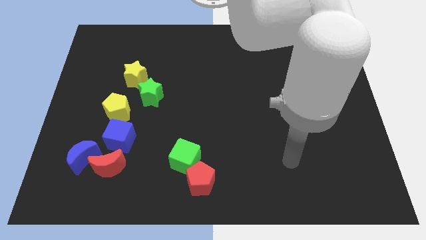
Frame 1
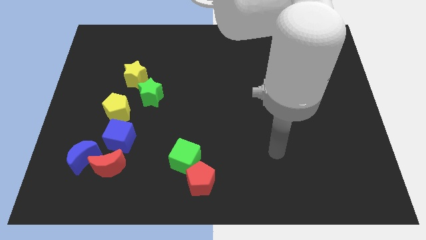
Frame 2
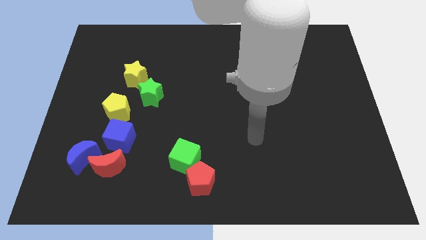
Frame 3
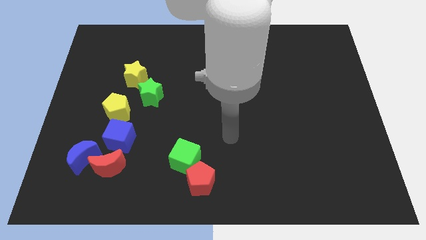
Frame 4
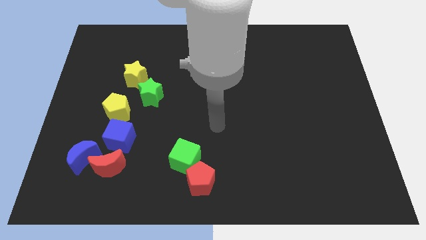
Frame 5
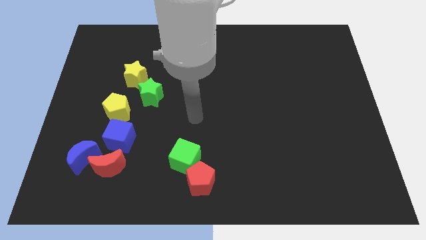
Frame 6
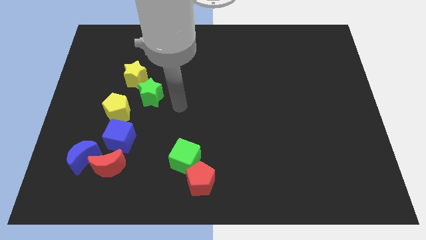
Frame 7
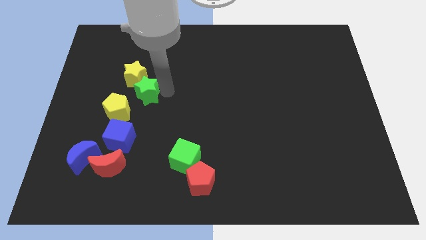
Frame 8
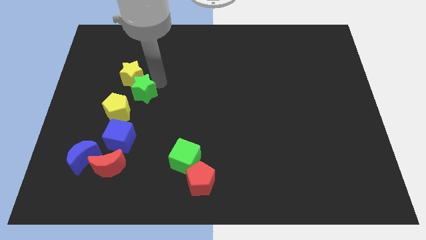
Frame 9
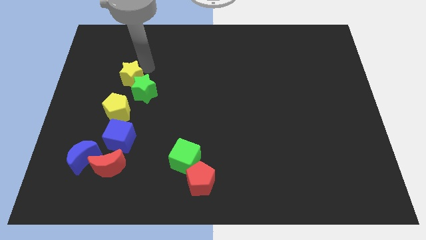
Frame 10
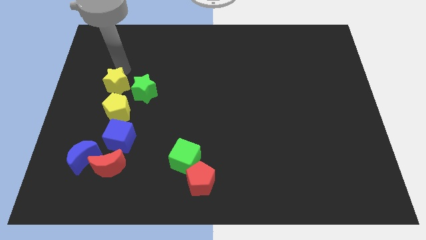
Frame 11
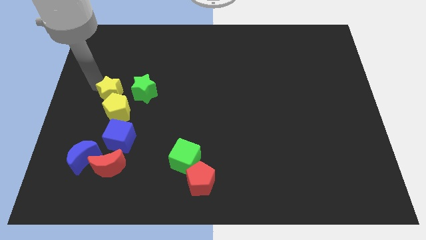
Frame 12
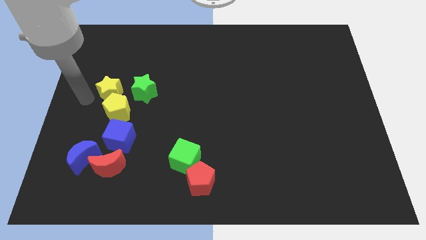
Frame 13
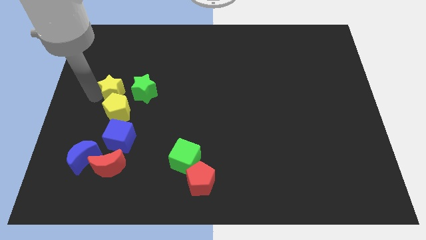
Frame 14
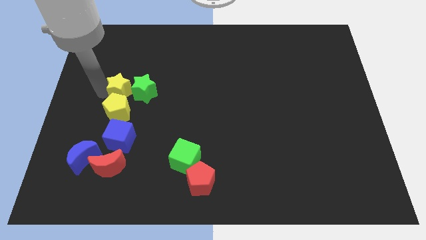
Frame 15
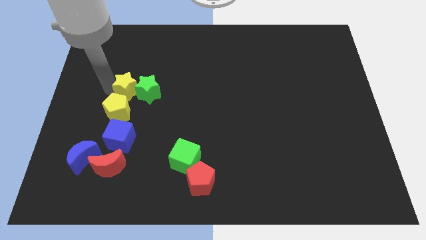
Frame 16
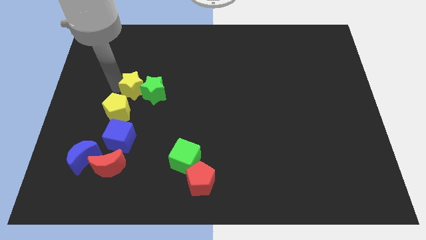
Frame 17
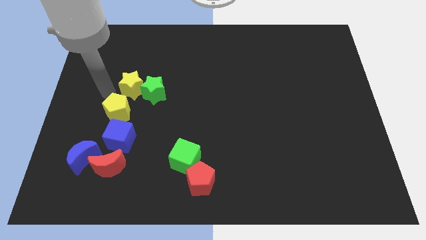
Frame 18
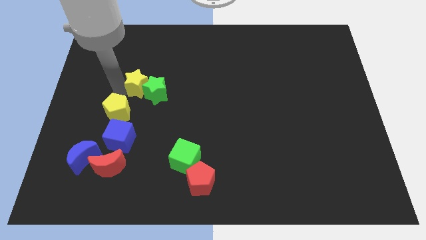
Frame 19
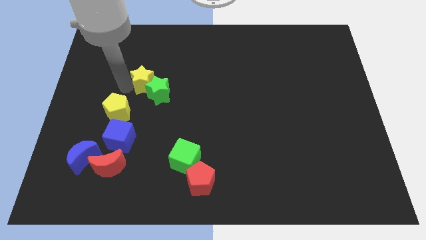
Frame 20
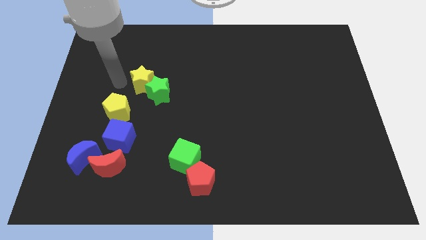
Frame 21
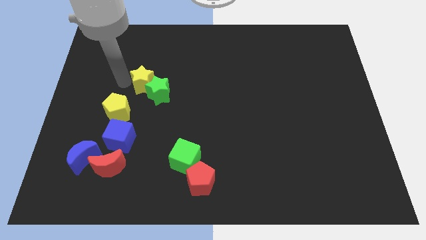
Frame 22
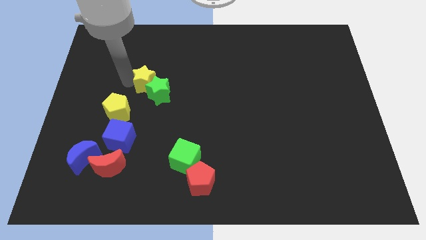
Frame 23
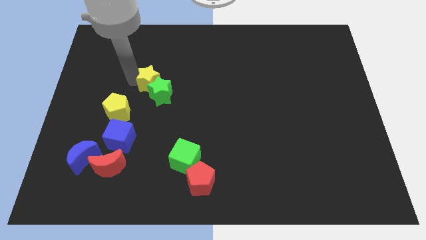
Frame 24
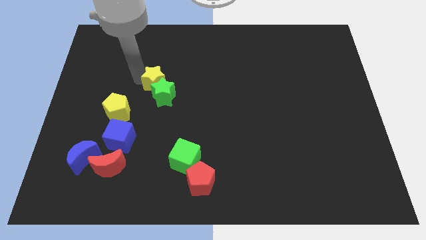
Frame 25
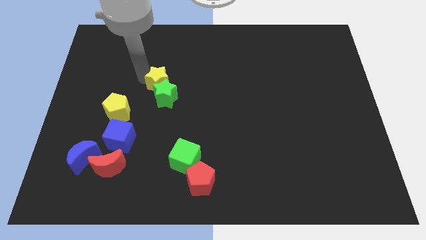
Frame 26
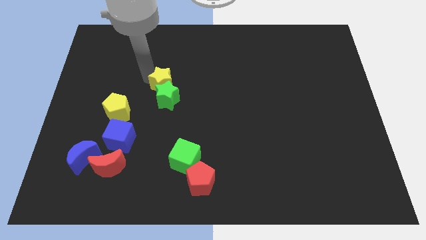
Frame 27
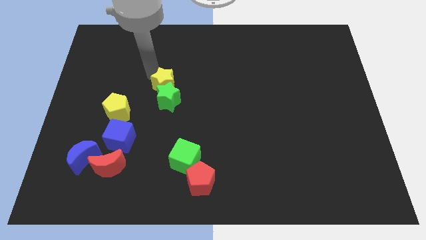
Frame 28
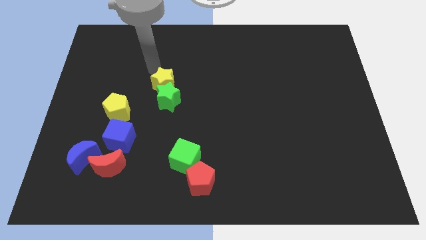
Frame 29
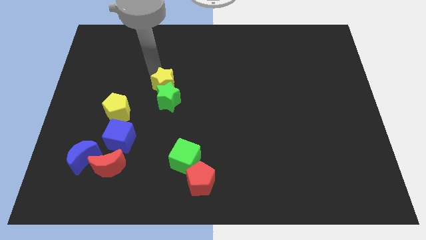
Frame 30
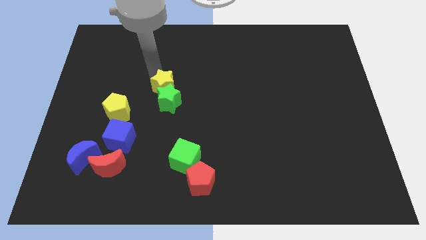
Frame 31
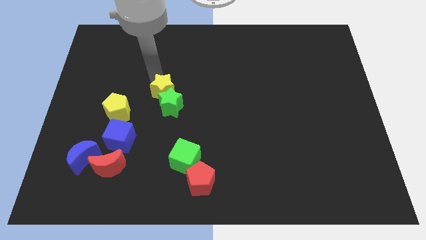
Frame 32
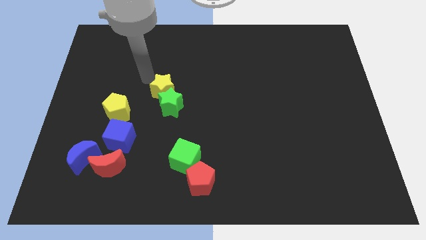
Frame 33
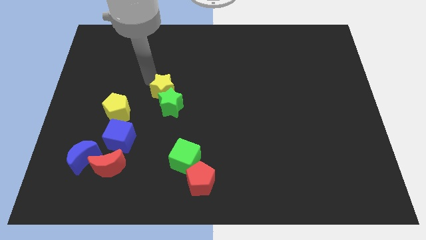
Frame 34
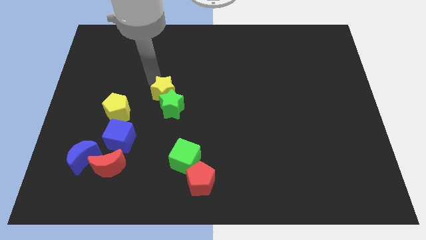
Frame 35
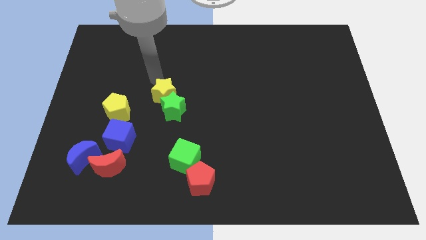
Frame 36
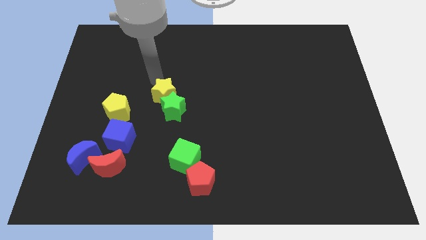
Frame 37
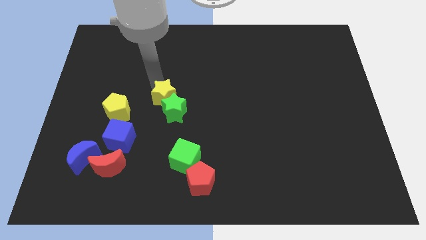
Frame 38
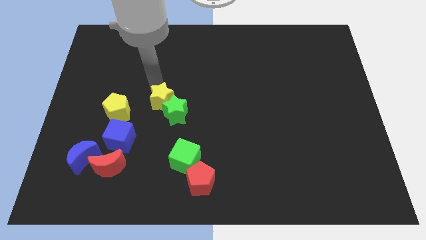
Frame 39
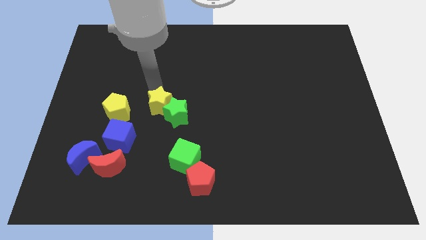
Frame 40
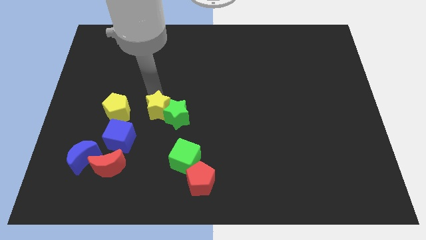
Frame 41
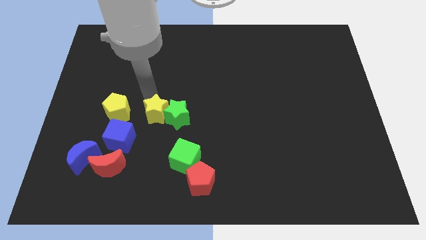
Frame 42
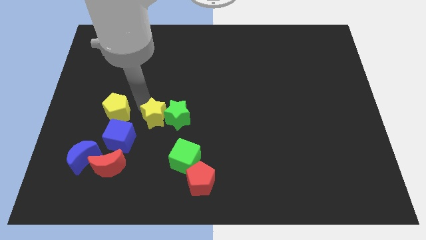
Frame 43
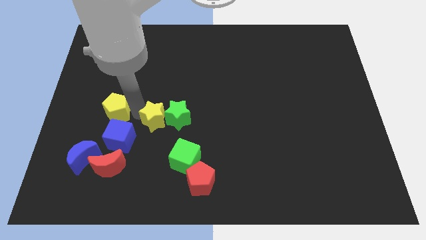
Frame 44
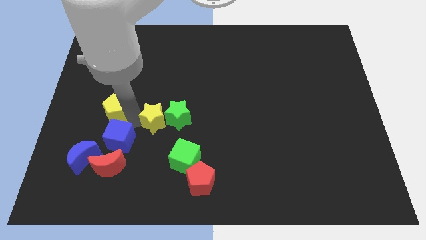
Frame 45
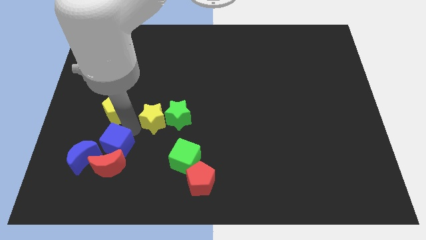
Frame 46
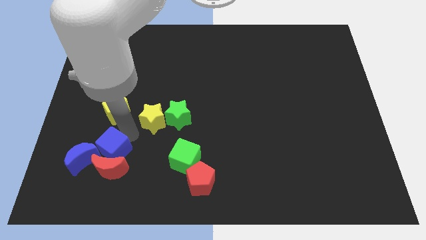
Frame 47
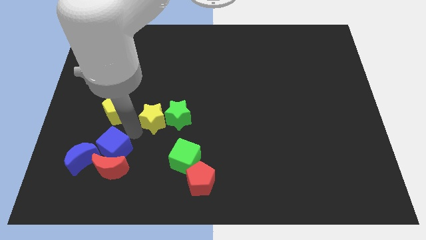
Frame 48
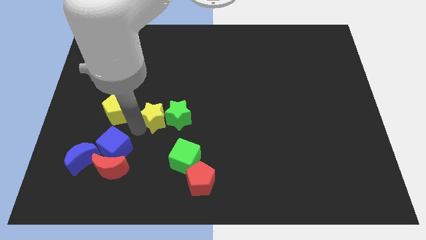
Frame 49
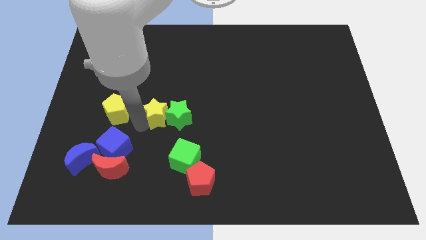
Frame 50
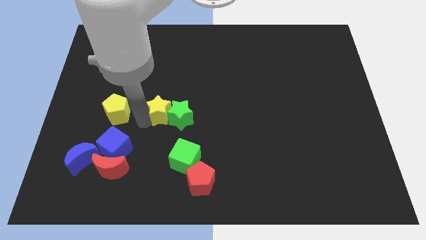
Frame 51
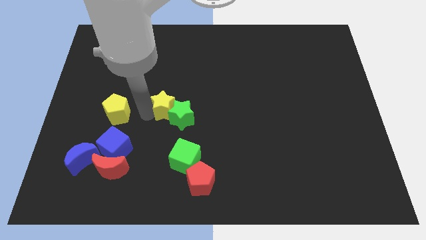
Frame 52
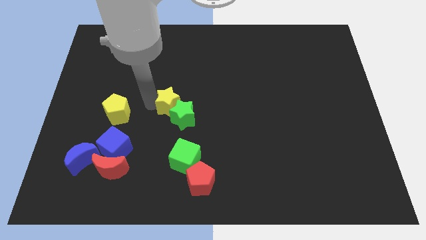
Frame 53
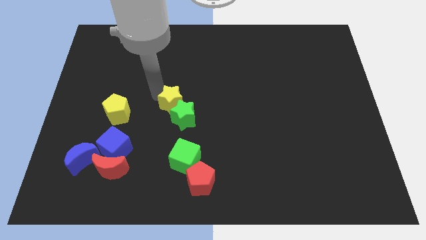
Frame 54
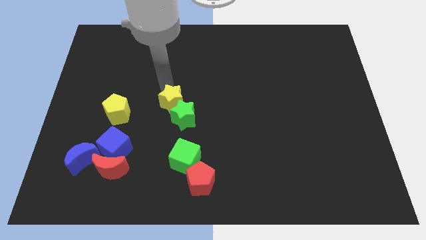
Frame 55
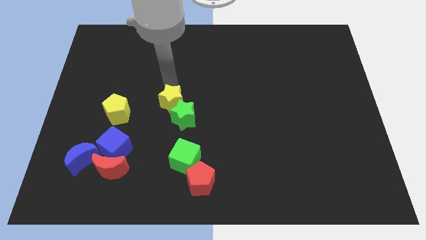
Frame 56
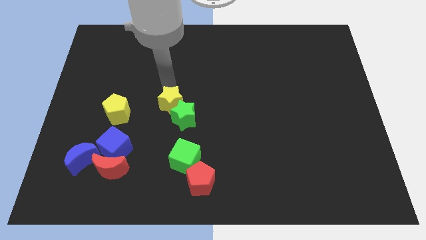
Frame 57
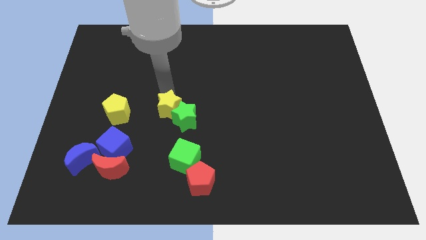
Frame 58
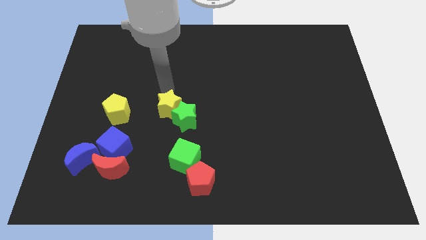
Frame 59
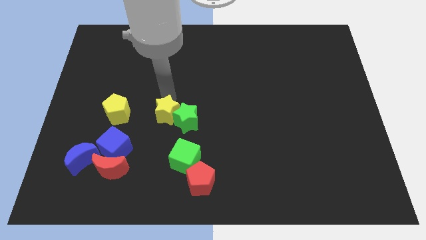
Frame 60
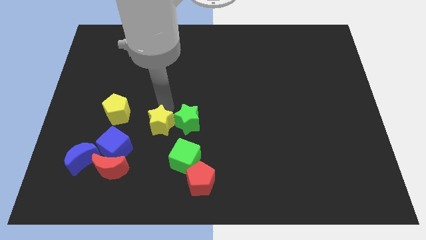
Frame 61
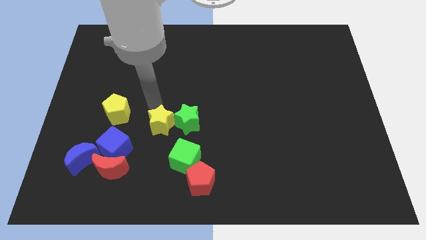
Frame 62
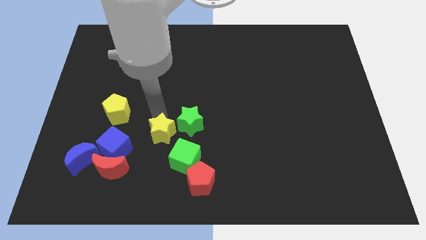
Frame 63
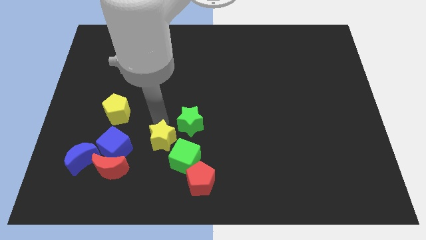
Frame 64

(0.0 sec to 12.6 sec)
move the yellow star diagonally up and to the left of the red pentagon

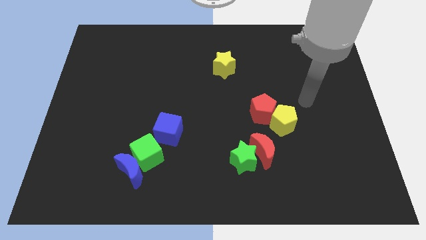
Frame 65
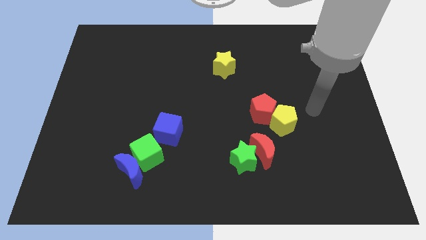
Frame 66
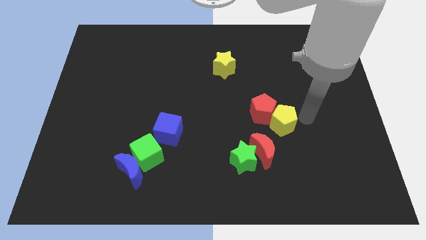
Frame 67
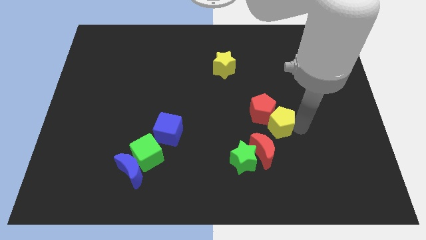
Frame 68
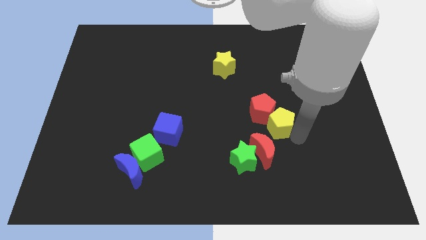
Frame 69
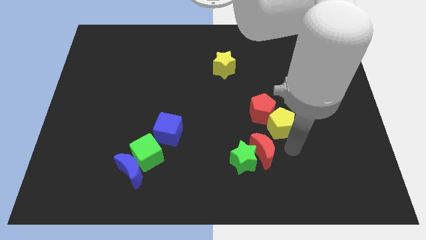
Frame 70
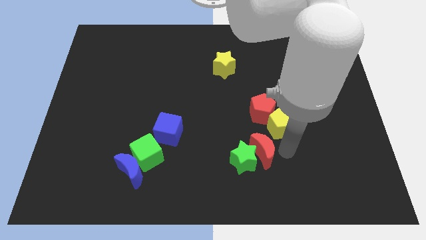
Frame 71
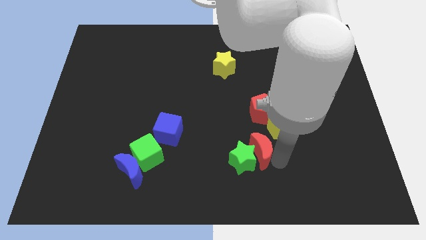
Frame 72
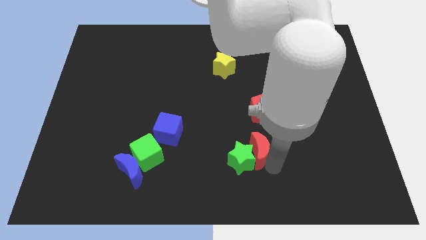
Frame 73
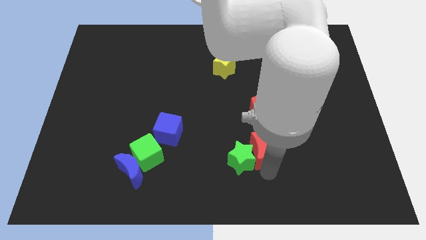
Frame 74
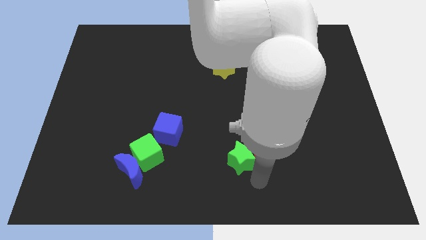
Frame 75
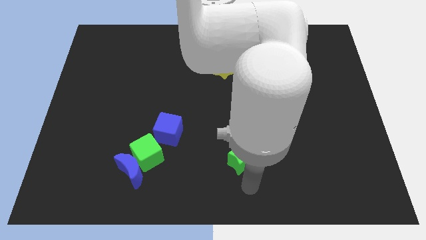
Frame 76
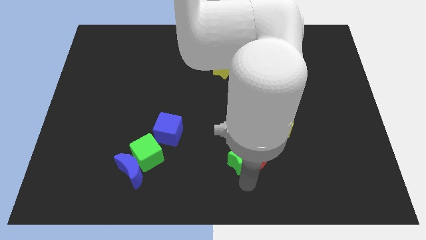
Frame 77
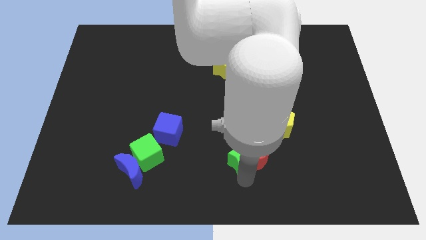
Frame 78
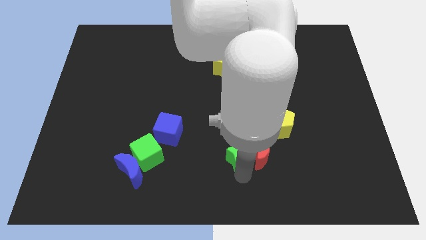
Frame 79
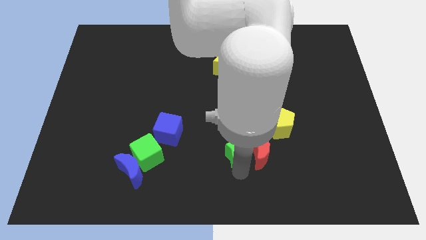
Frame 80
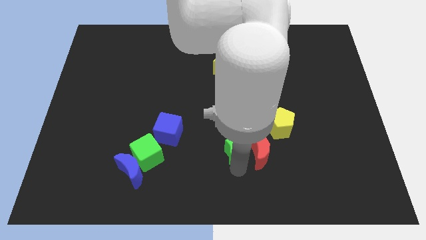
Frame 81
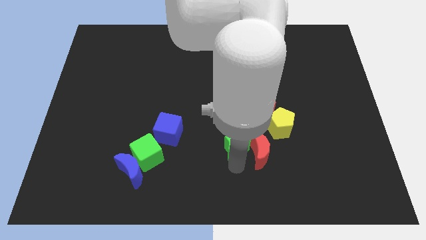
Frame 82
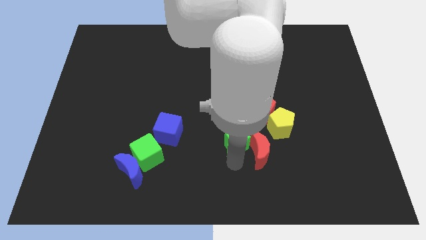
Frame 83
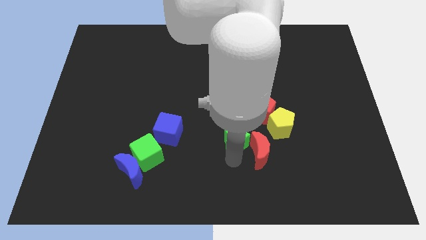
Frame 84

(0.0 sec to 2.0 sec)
slide the green star to the left side of the yellow pentagon
